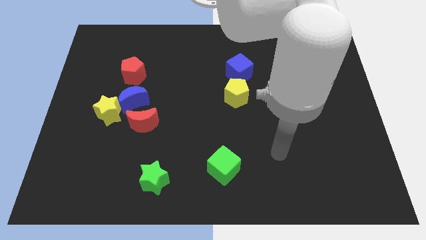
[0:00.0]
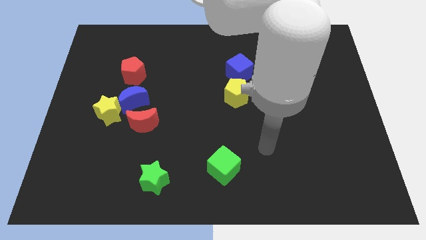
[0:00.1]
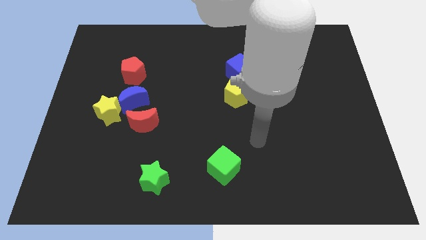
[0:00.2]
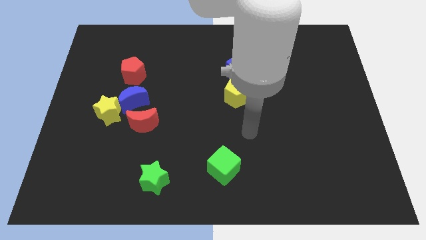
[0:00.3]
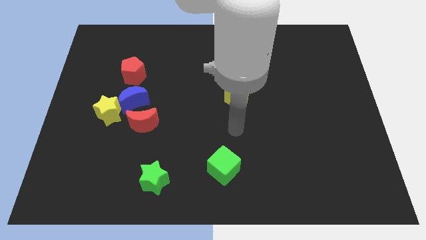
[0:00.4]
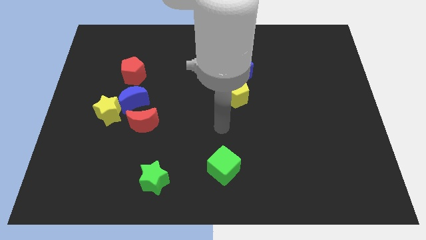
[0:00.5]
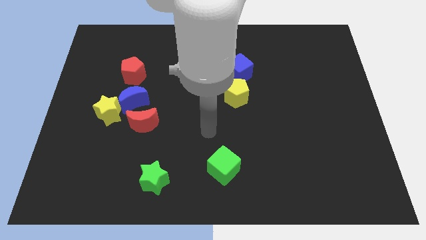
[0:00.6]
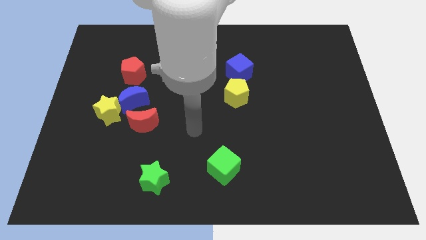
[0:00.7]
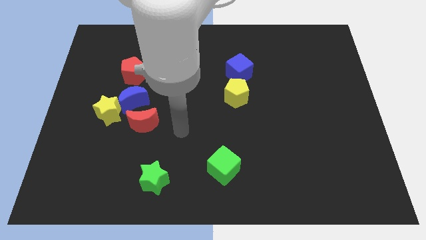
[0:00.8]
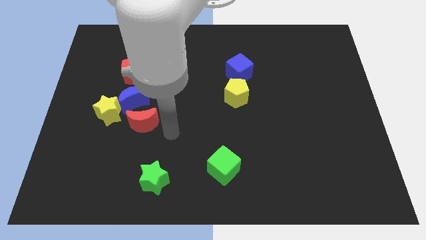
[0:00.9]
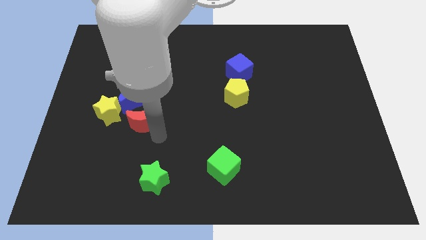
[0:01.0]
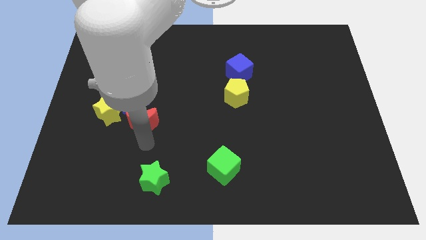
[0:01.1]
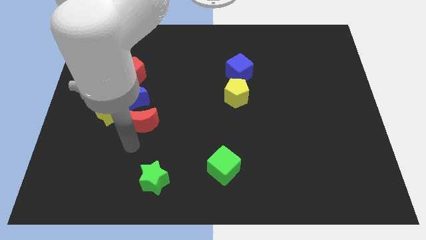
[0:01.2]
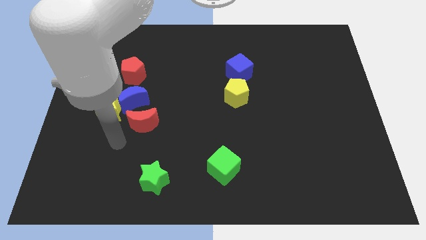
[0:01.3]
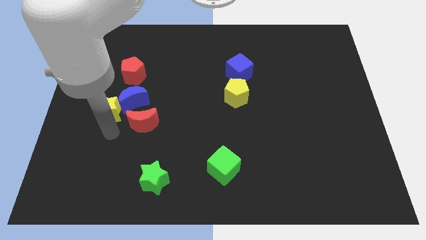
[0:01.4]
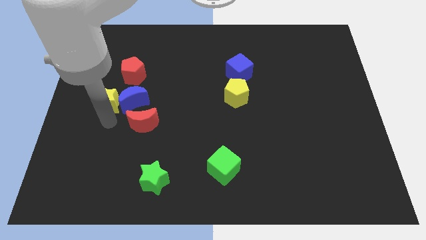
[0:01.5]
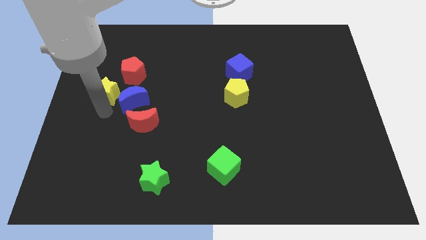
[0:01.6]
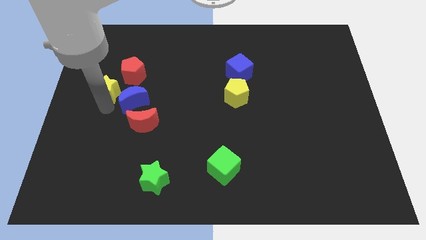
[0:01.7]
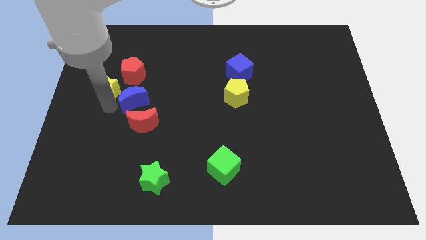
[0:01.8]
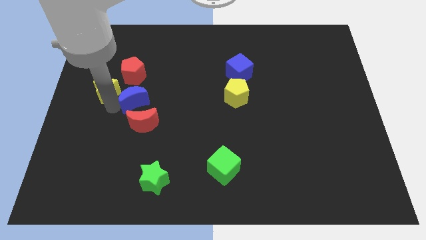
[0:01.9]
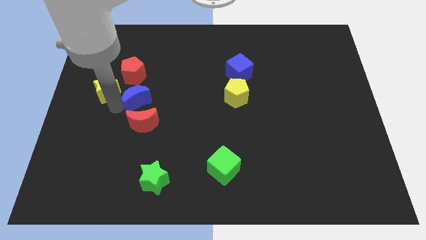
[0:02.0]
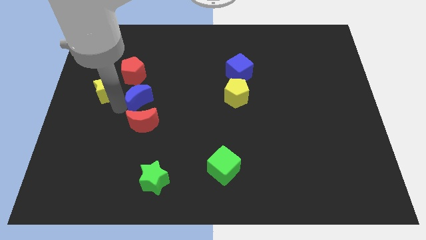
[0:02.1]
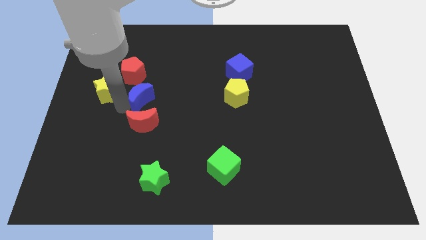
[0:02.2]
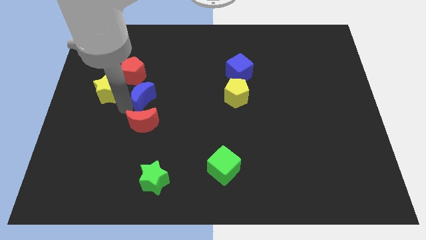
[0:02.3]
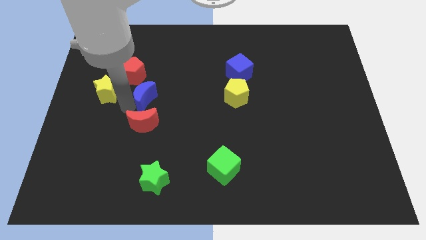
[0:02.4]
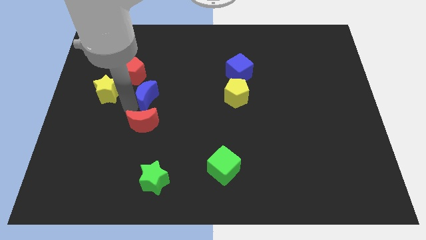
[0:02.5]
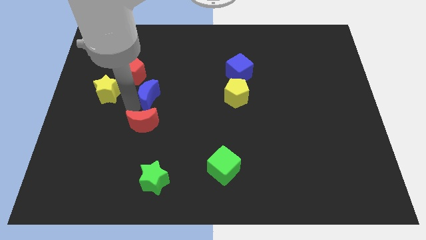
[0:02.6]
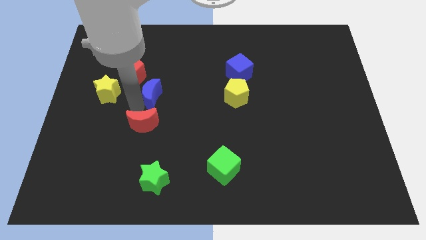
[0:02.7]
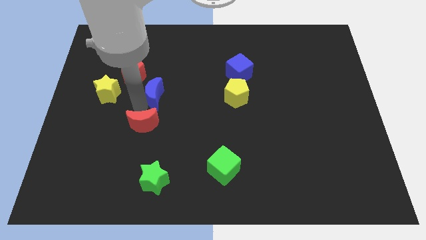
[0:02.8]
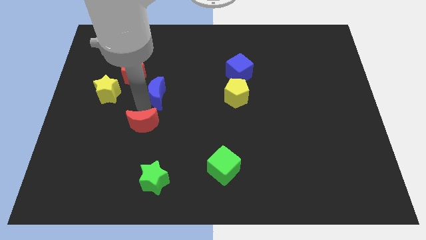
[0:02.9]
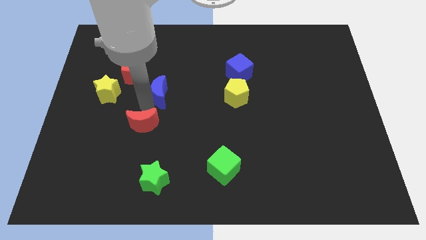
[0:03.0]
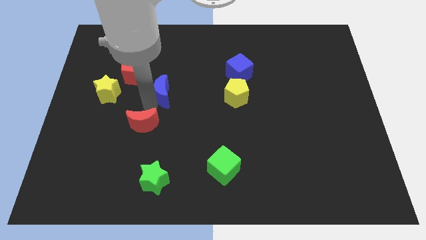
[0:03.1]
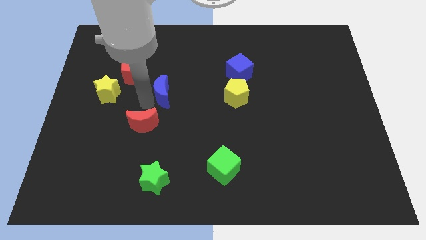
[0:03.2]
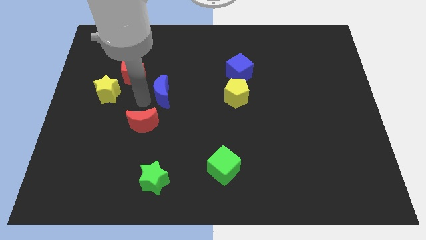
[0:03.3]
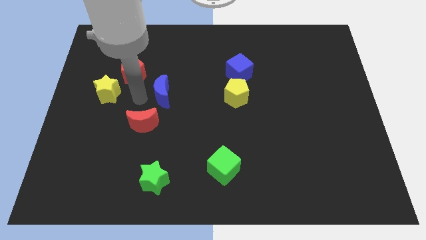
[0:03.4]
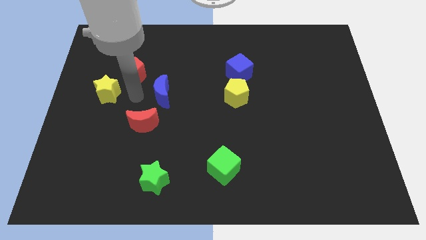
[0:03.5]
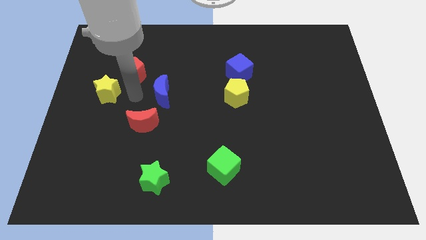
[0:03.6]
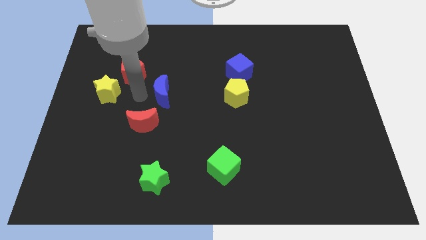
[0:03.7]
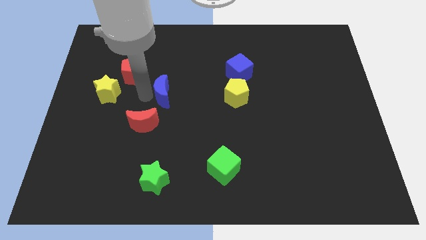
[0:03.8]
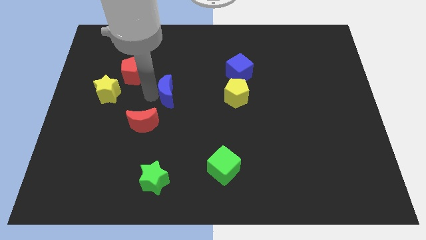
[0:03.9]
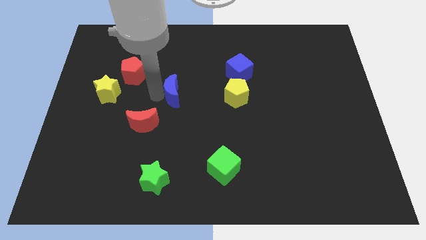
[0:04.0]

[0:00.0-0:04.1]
pull the blue moon apart from the clump

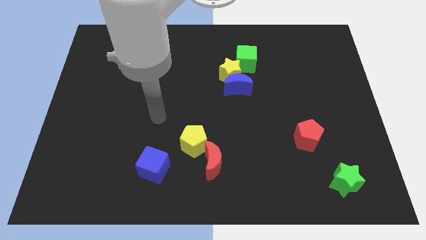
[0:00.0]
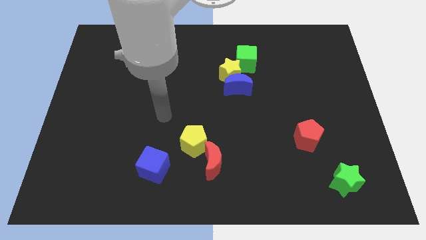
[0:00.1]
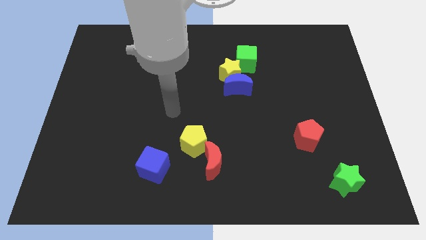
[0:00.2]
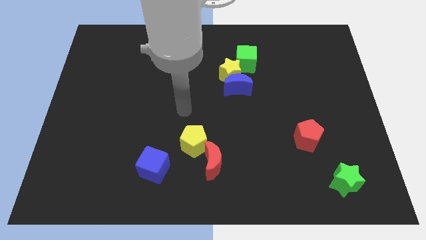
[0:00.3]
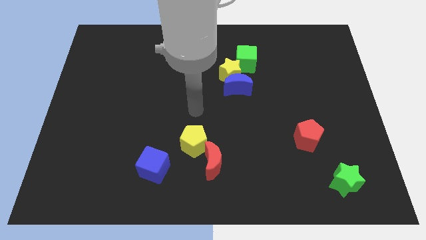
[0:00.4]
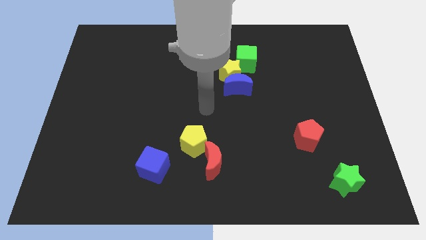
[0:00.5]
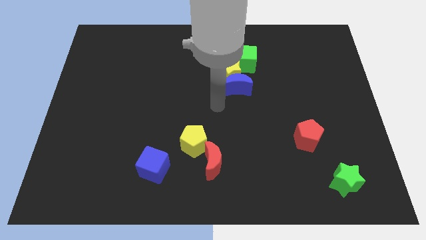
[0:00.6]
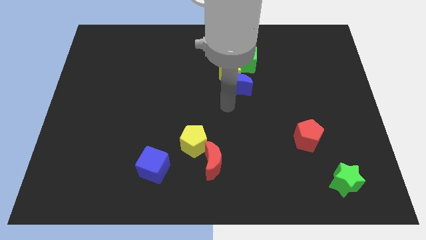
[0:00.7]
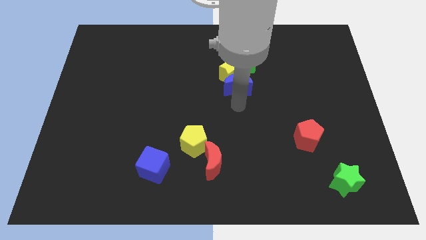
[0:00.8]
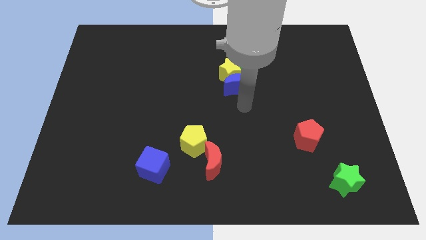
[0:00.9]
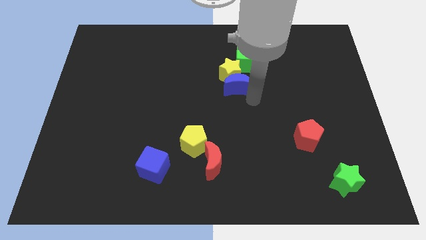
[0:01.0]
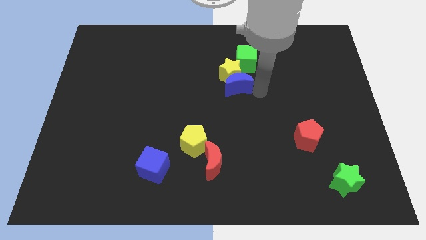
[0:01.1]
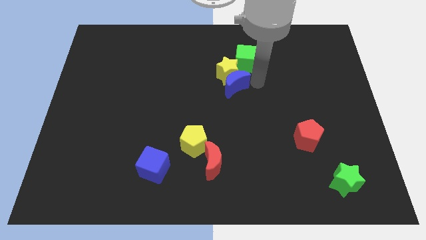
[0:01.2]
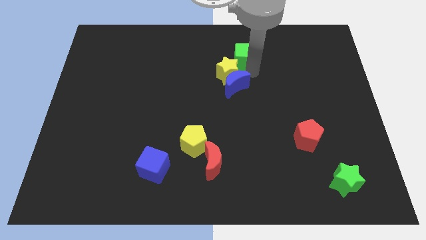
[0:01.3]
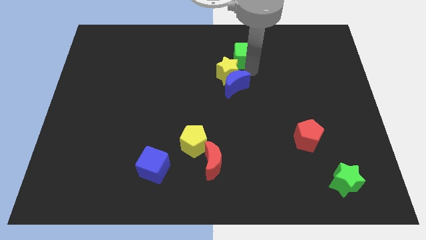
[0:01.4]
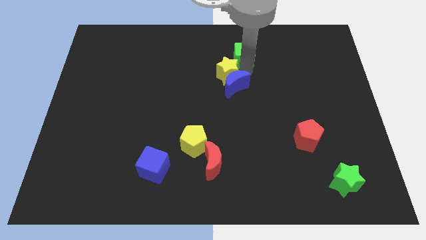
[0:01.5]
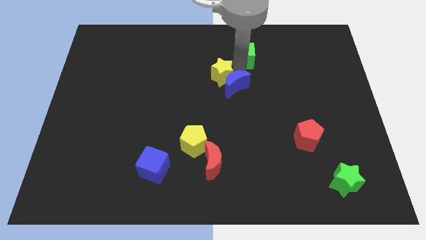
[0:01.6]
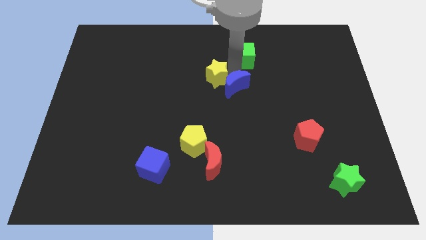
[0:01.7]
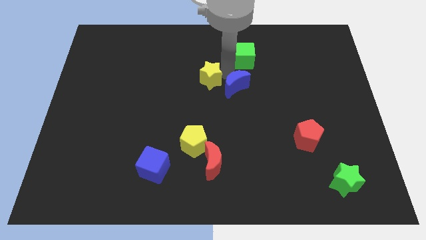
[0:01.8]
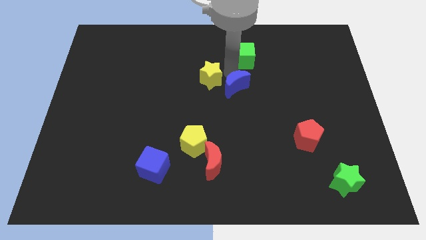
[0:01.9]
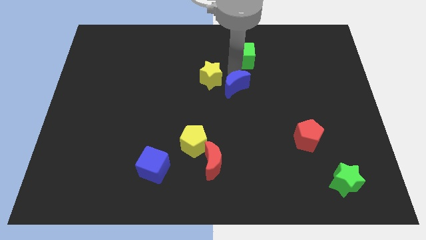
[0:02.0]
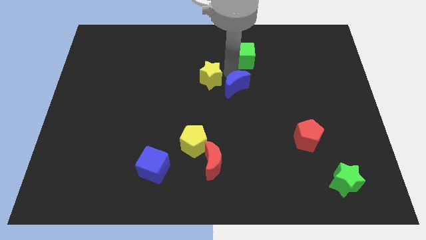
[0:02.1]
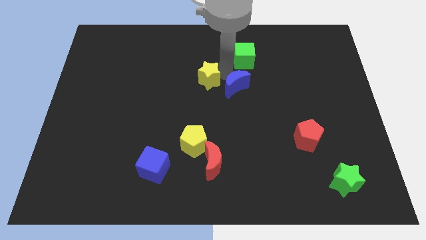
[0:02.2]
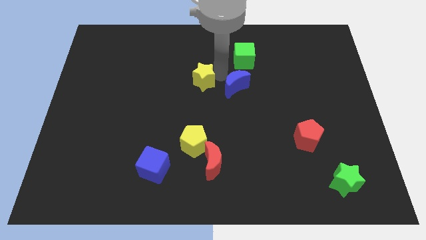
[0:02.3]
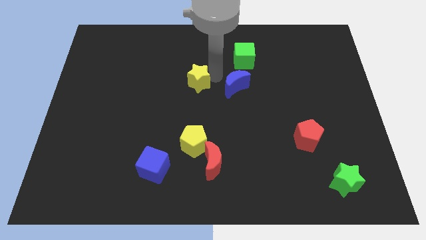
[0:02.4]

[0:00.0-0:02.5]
separate the yellow star from the blue moon and green cube

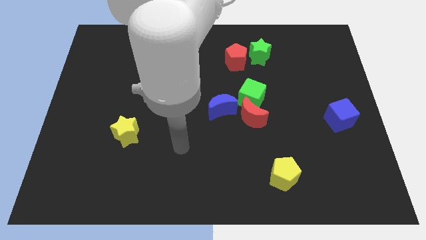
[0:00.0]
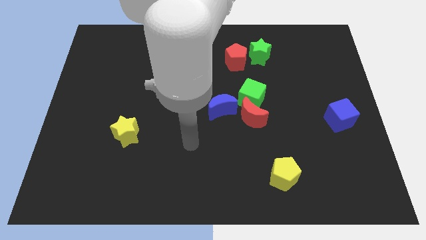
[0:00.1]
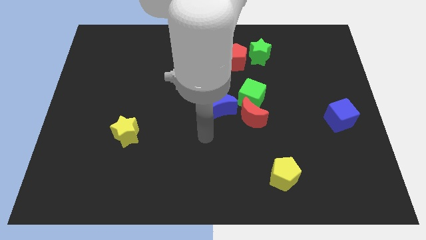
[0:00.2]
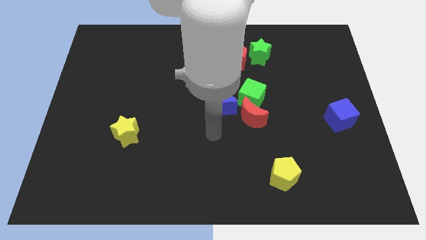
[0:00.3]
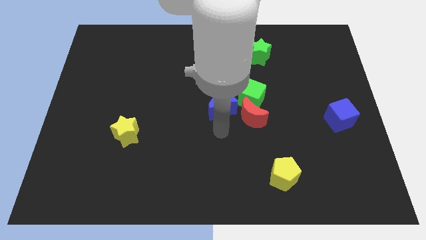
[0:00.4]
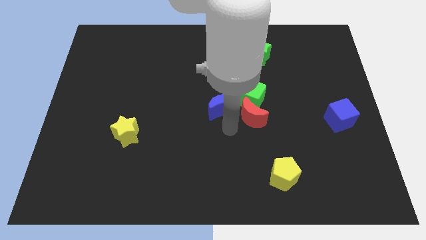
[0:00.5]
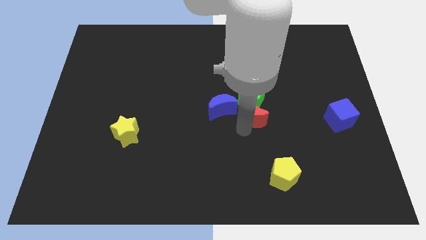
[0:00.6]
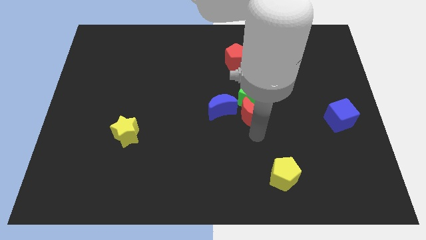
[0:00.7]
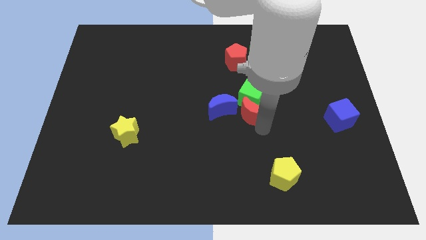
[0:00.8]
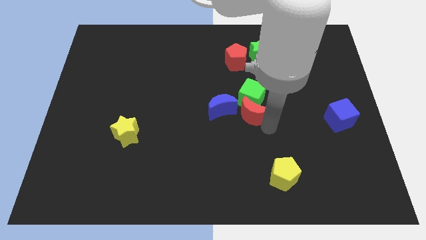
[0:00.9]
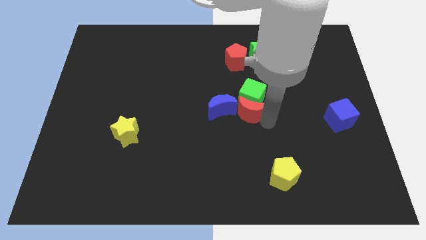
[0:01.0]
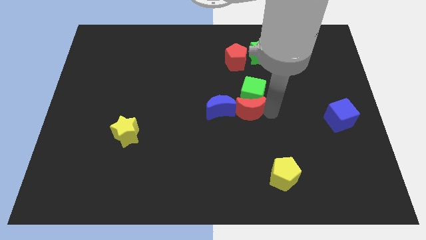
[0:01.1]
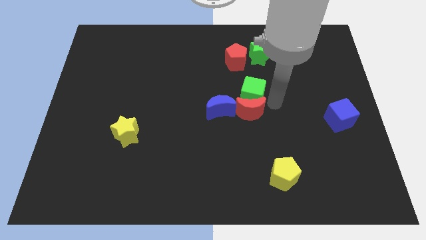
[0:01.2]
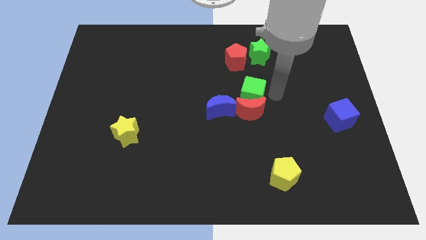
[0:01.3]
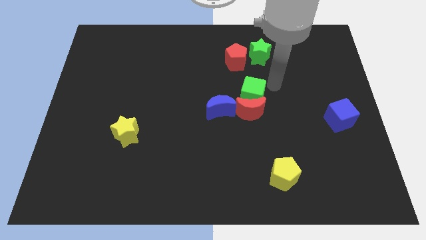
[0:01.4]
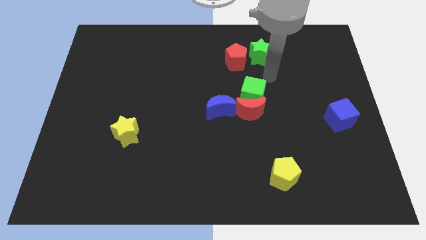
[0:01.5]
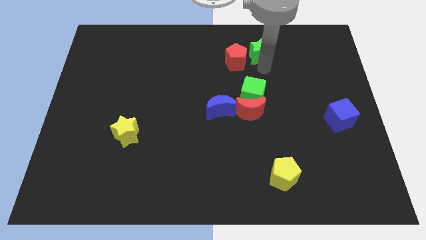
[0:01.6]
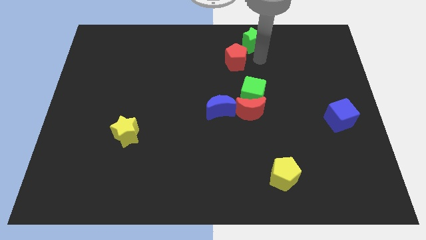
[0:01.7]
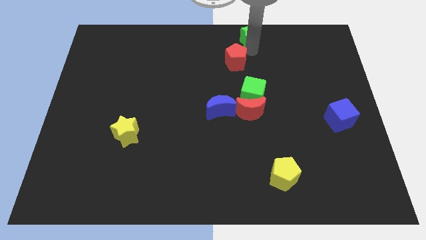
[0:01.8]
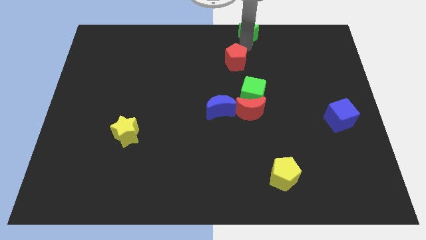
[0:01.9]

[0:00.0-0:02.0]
pull the red pentagon apart from the green star

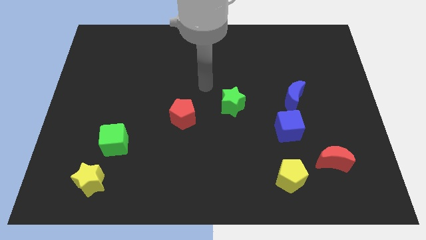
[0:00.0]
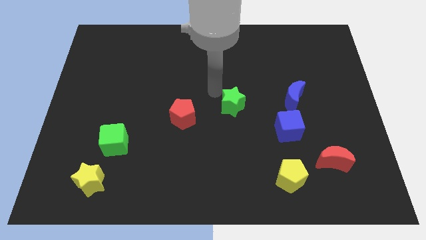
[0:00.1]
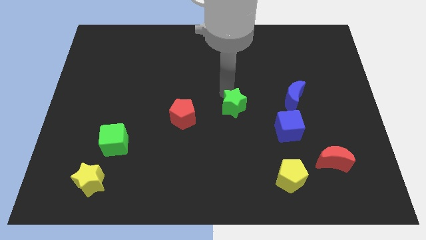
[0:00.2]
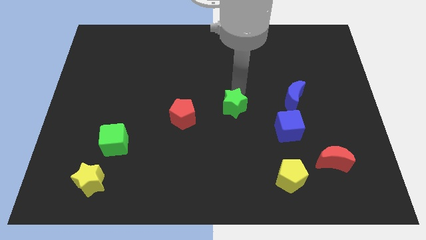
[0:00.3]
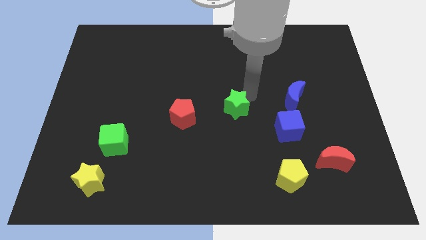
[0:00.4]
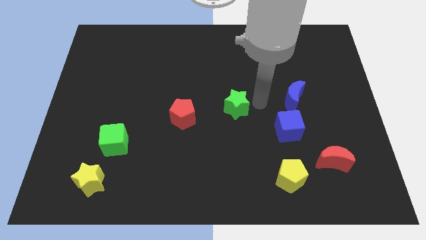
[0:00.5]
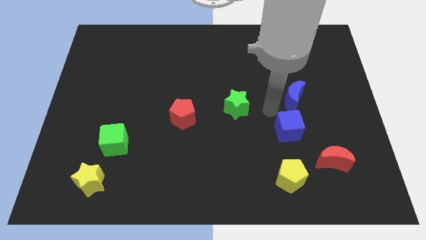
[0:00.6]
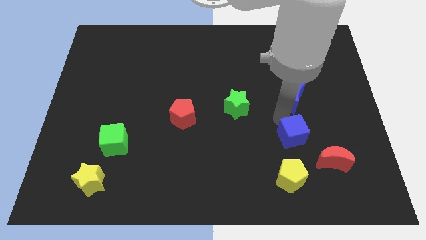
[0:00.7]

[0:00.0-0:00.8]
pull the blue moon apart from the blue cube
